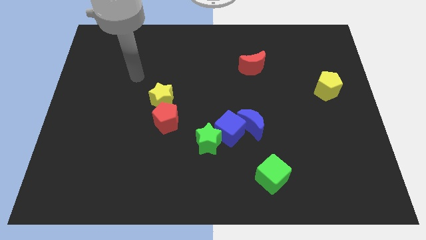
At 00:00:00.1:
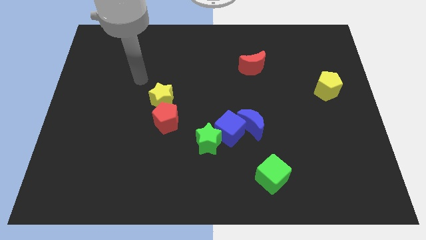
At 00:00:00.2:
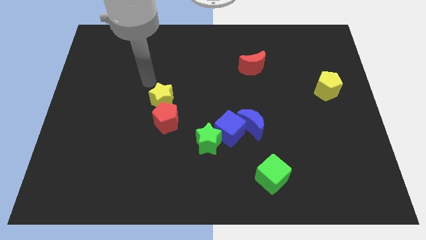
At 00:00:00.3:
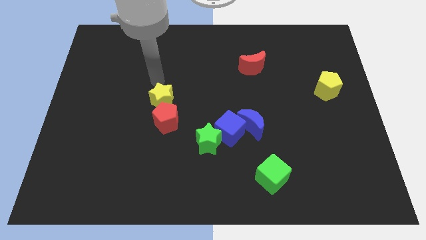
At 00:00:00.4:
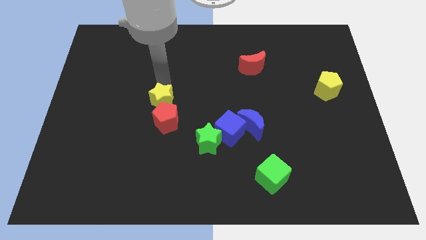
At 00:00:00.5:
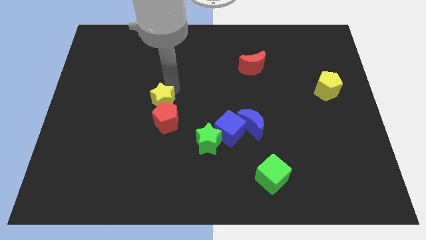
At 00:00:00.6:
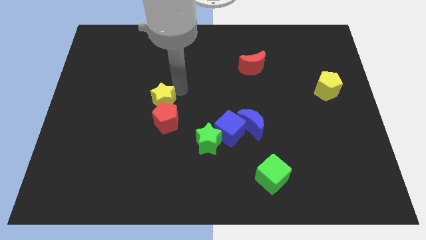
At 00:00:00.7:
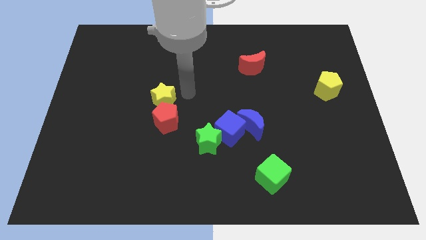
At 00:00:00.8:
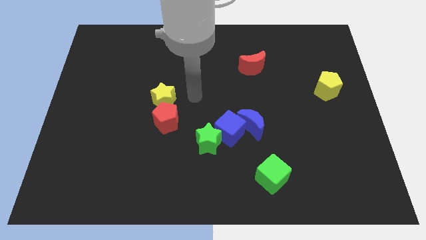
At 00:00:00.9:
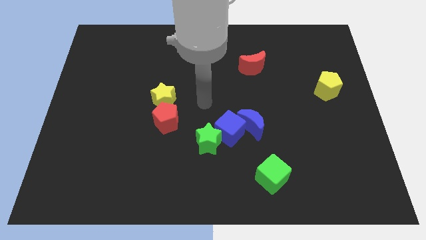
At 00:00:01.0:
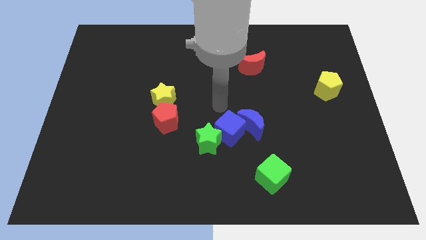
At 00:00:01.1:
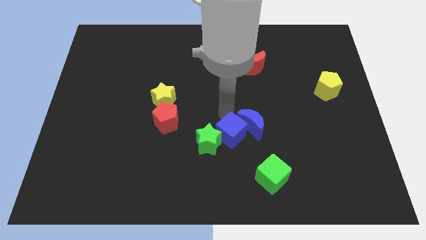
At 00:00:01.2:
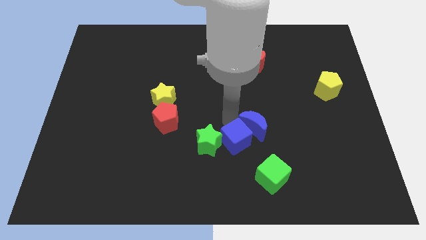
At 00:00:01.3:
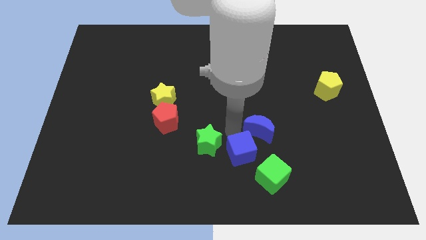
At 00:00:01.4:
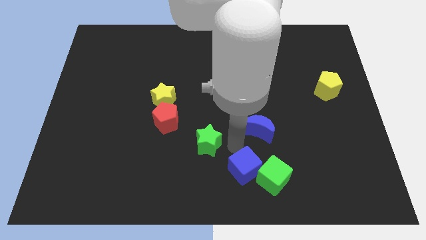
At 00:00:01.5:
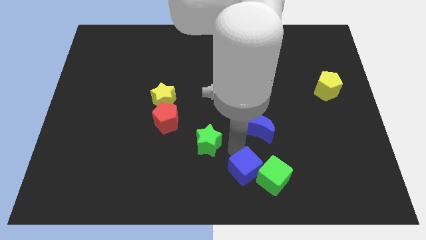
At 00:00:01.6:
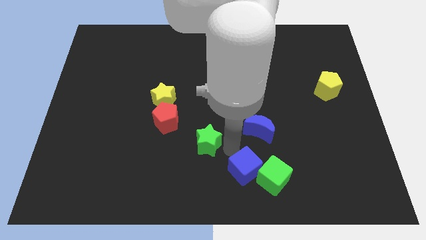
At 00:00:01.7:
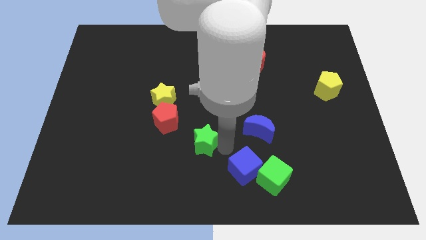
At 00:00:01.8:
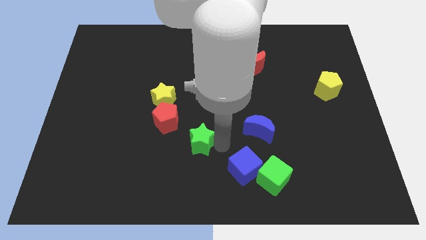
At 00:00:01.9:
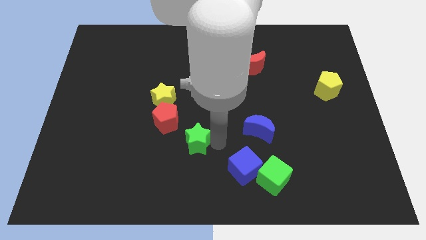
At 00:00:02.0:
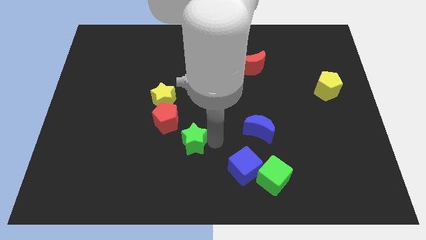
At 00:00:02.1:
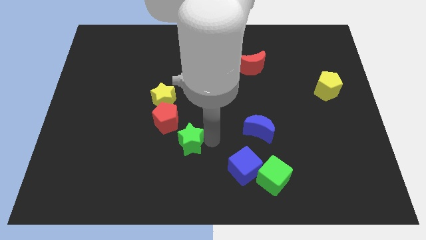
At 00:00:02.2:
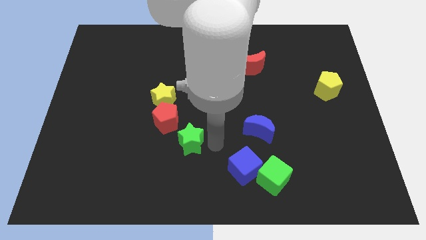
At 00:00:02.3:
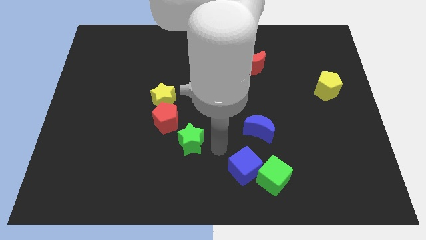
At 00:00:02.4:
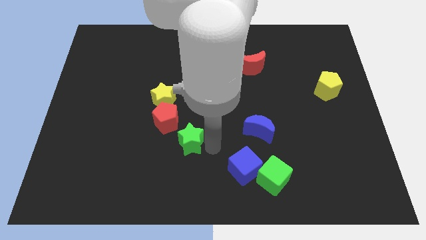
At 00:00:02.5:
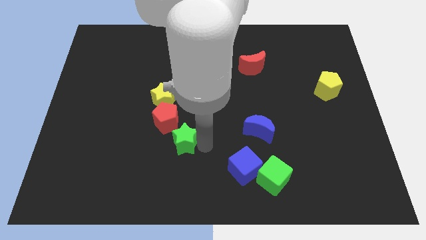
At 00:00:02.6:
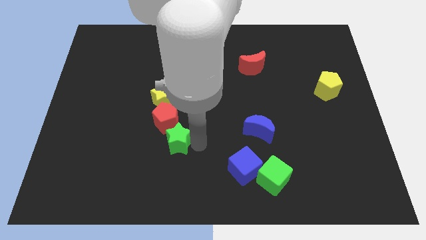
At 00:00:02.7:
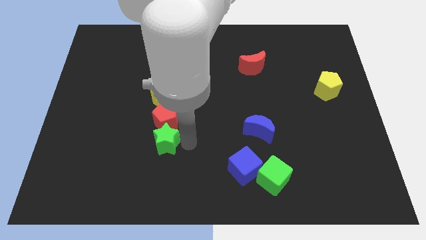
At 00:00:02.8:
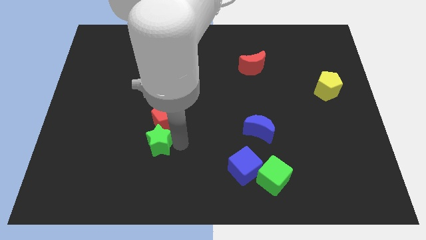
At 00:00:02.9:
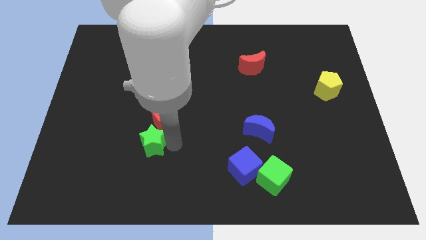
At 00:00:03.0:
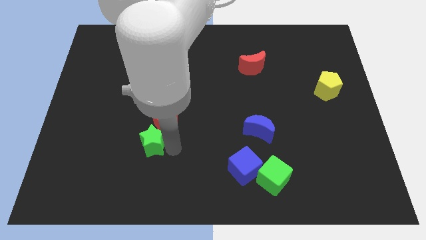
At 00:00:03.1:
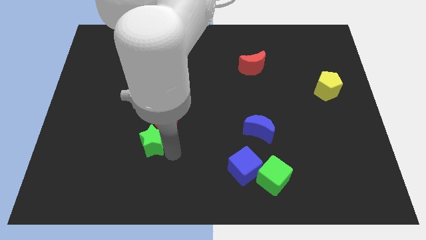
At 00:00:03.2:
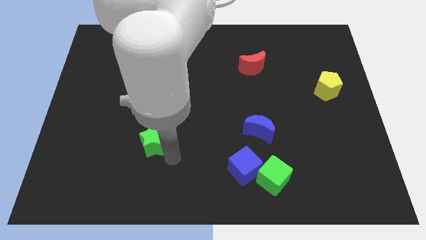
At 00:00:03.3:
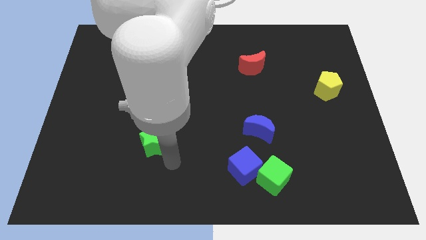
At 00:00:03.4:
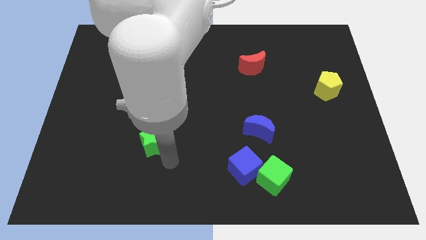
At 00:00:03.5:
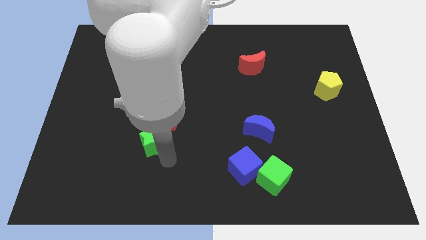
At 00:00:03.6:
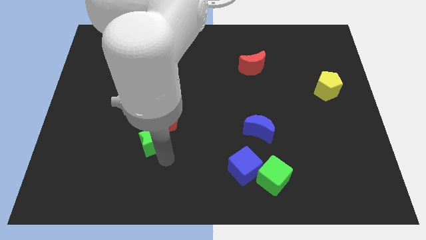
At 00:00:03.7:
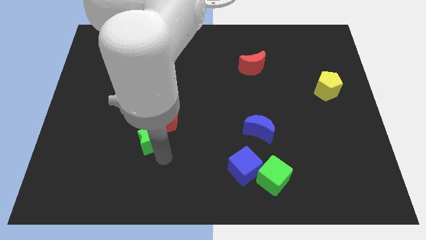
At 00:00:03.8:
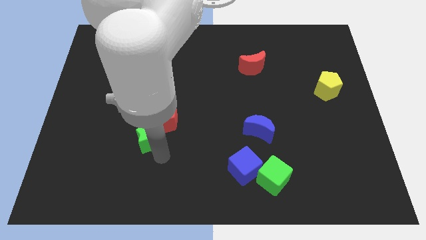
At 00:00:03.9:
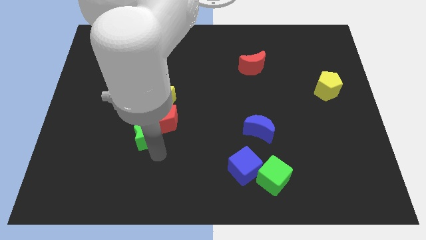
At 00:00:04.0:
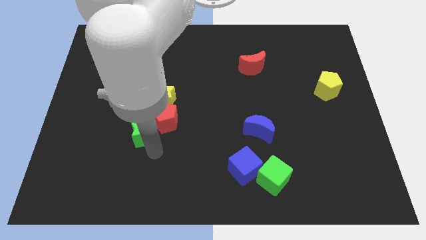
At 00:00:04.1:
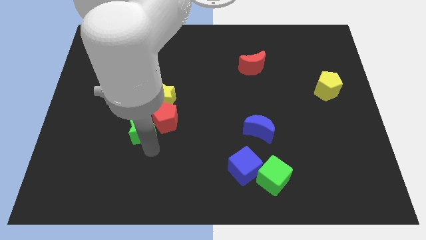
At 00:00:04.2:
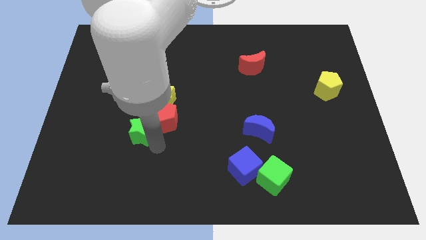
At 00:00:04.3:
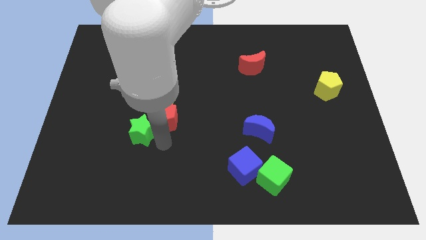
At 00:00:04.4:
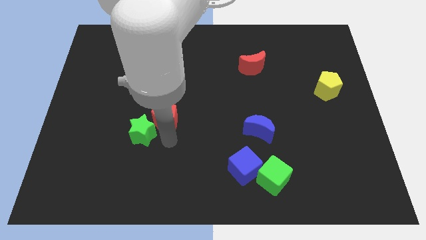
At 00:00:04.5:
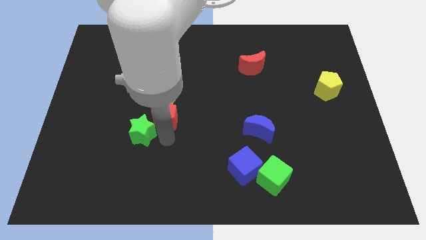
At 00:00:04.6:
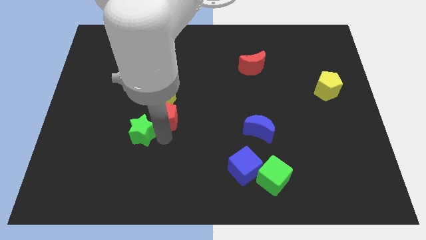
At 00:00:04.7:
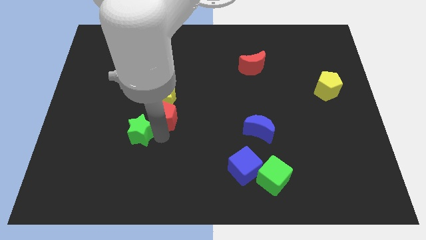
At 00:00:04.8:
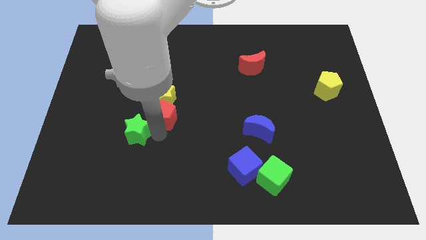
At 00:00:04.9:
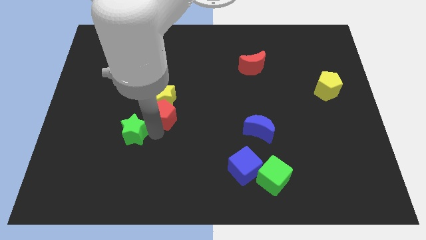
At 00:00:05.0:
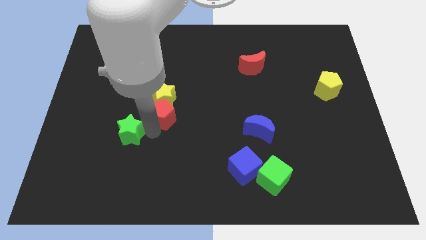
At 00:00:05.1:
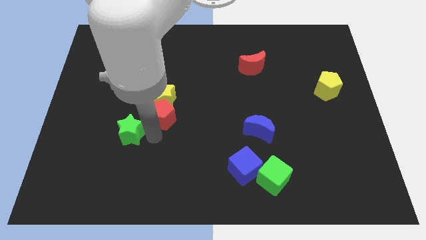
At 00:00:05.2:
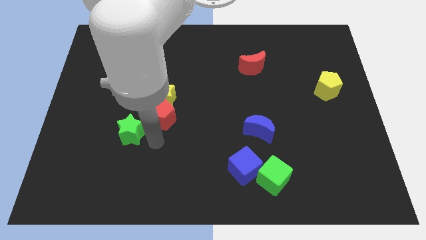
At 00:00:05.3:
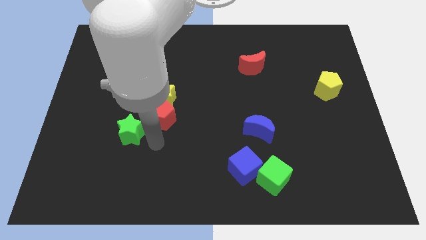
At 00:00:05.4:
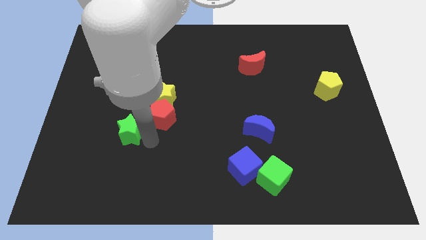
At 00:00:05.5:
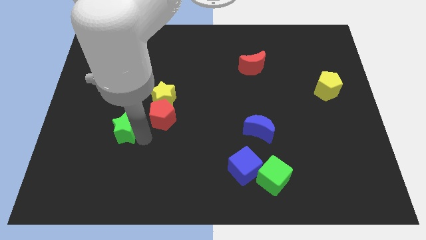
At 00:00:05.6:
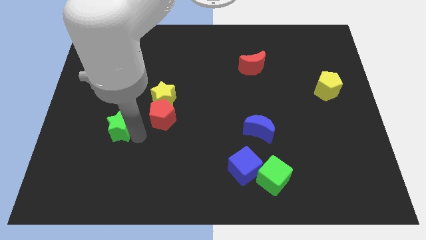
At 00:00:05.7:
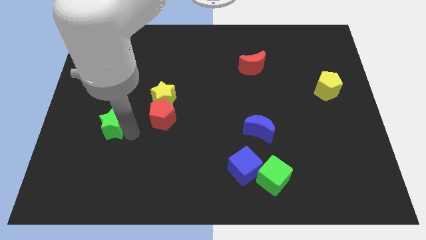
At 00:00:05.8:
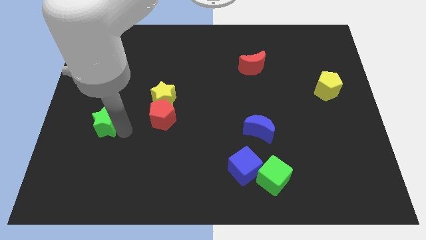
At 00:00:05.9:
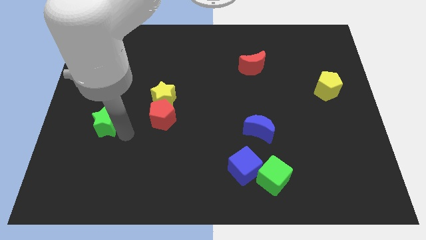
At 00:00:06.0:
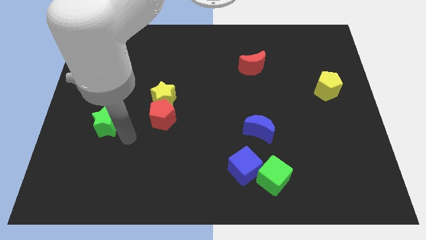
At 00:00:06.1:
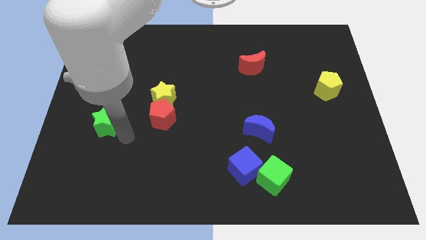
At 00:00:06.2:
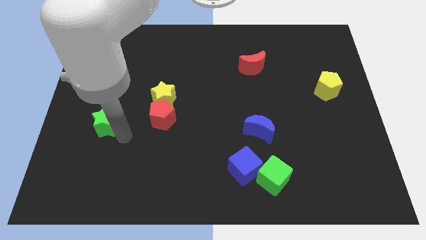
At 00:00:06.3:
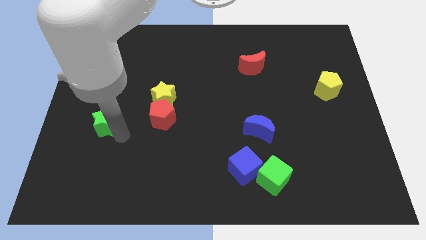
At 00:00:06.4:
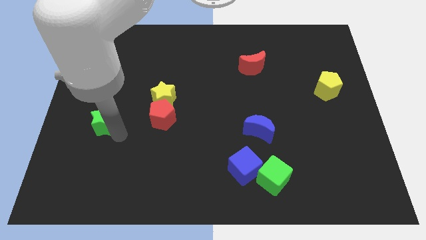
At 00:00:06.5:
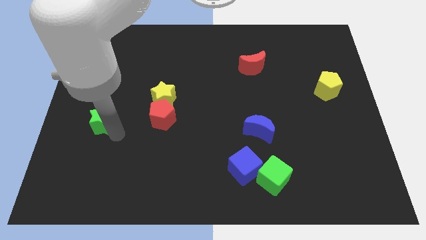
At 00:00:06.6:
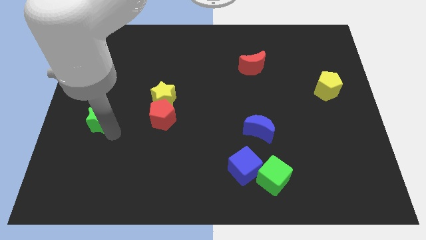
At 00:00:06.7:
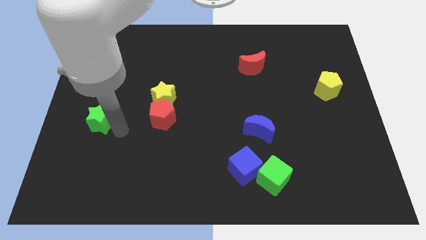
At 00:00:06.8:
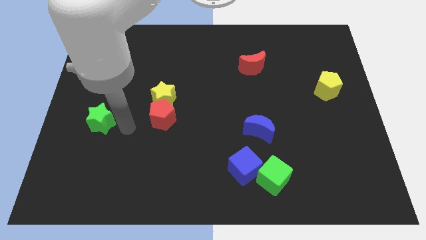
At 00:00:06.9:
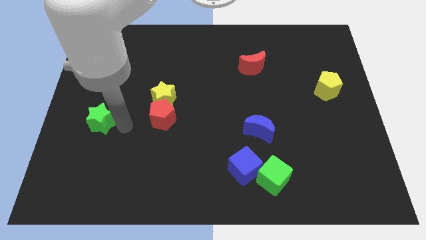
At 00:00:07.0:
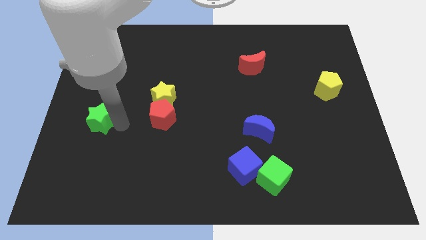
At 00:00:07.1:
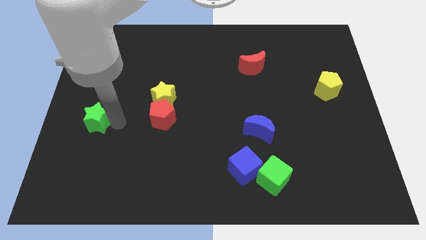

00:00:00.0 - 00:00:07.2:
move the green star to the center left
